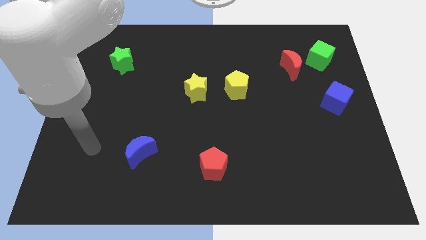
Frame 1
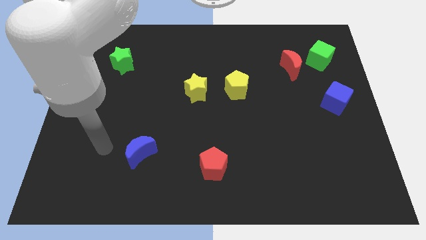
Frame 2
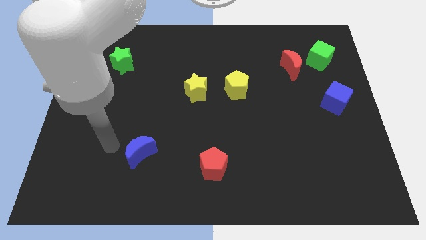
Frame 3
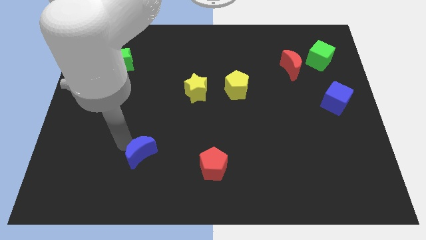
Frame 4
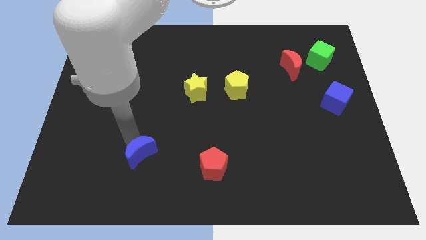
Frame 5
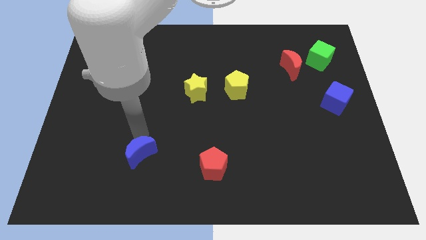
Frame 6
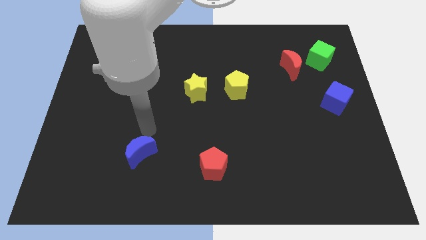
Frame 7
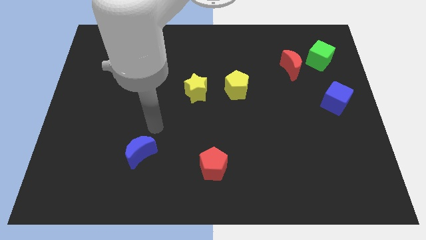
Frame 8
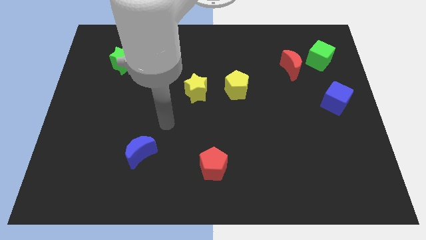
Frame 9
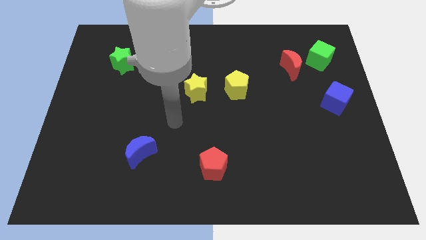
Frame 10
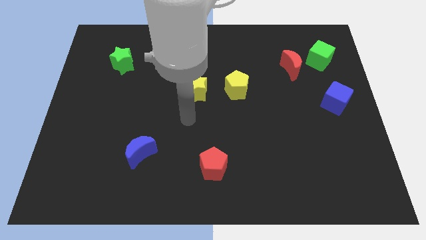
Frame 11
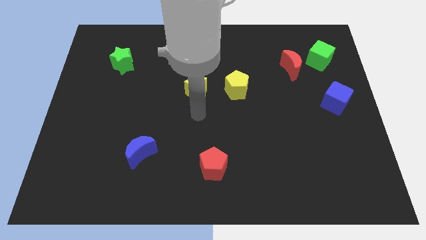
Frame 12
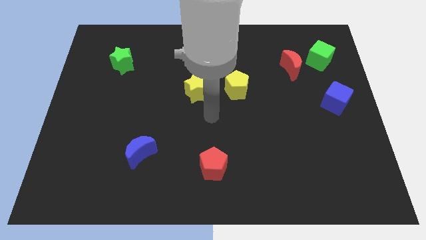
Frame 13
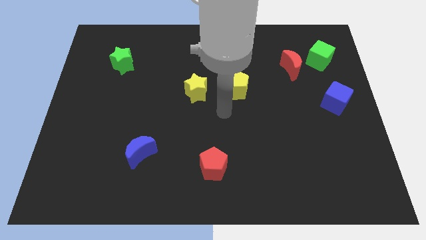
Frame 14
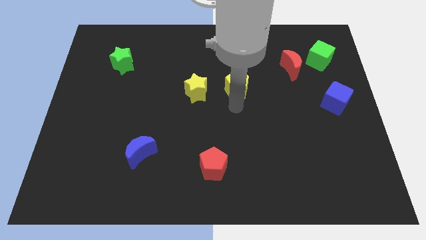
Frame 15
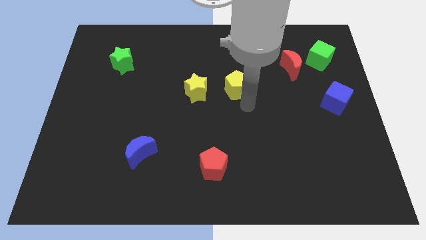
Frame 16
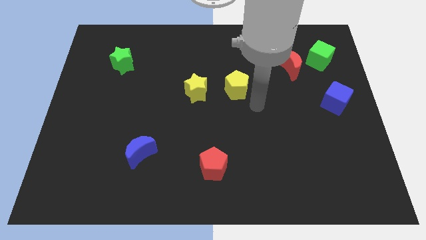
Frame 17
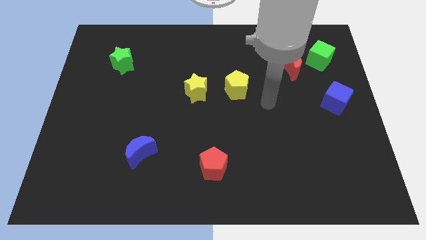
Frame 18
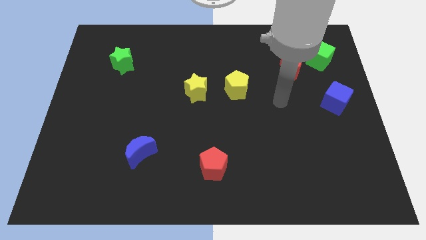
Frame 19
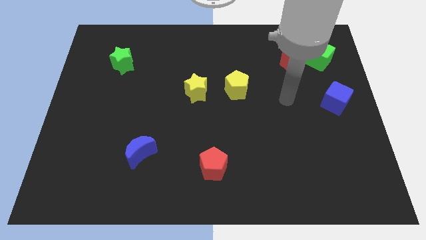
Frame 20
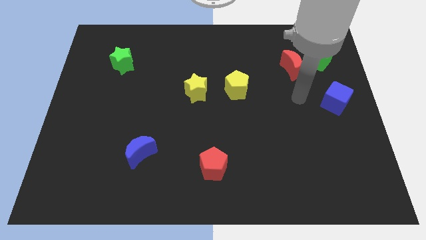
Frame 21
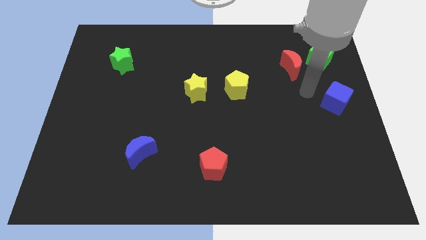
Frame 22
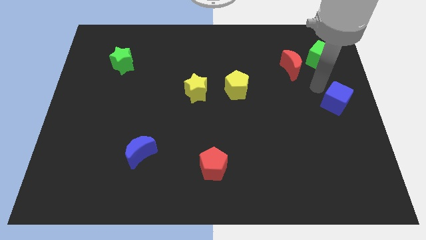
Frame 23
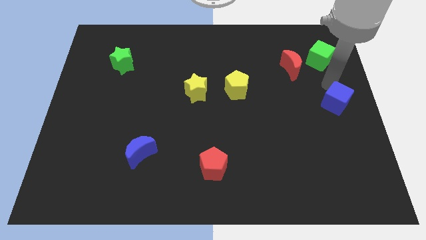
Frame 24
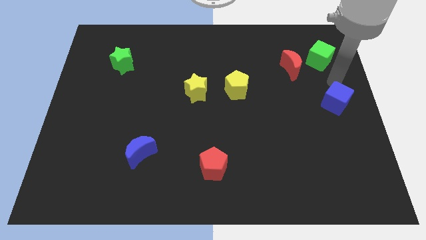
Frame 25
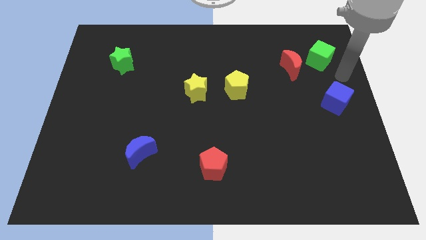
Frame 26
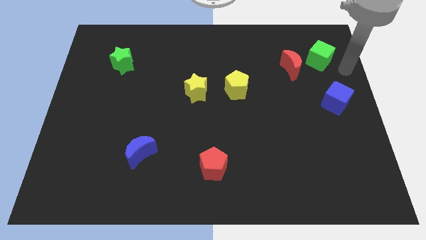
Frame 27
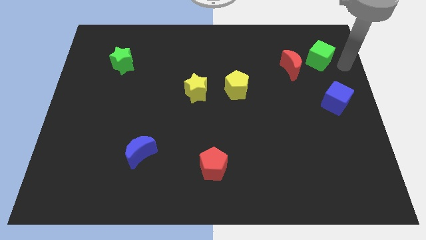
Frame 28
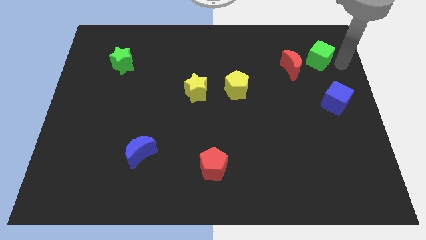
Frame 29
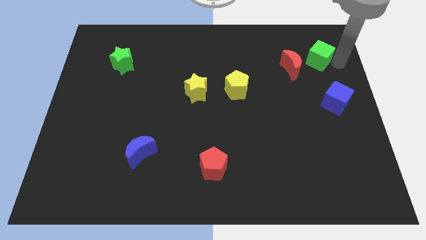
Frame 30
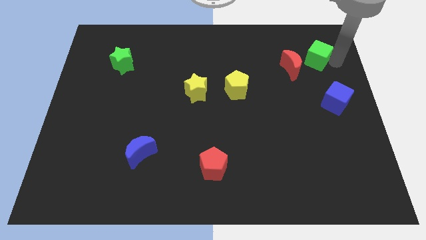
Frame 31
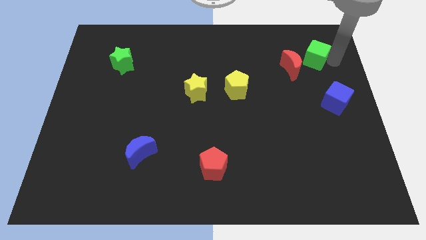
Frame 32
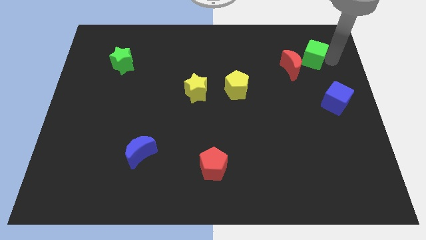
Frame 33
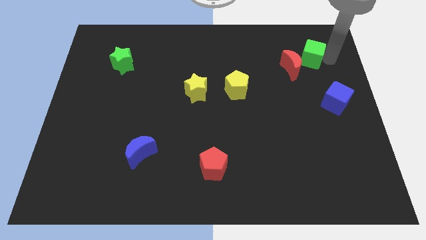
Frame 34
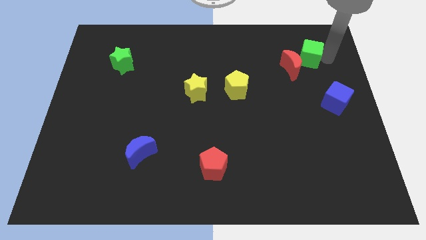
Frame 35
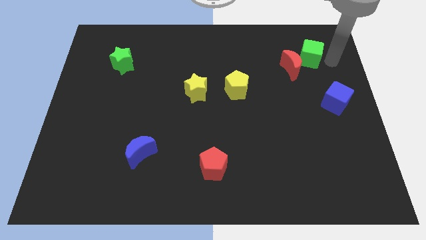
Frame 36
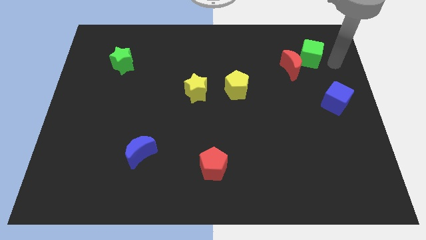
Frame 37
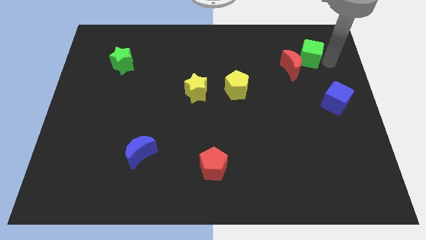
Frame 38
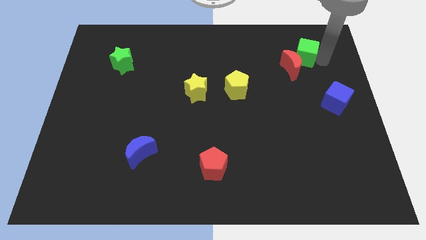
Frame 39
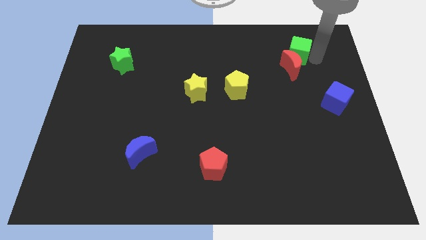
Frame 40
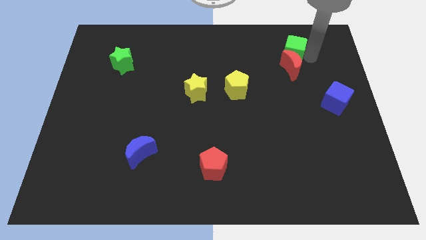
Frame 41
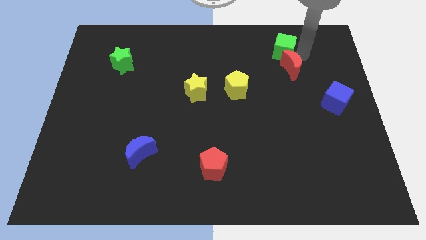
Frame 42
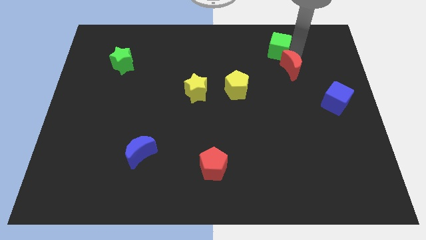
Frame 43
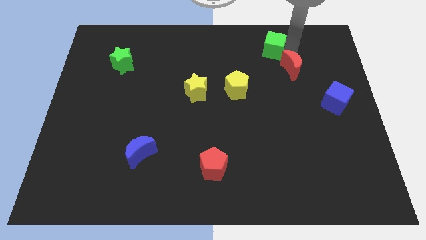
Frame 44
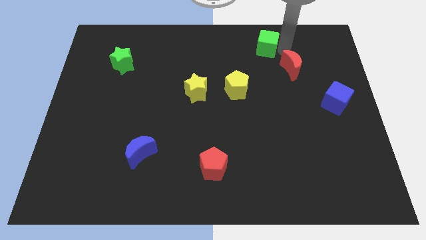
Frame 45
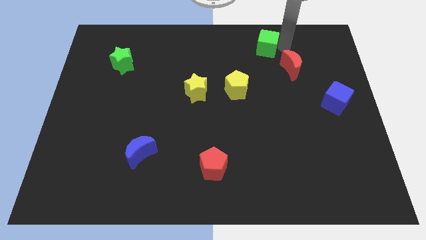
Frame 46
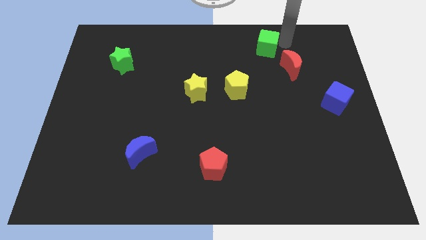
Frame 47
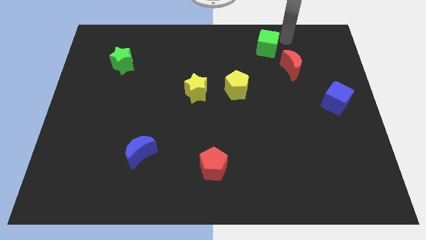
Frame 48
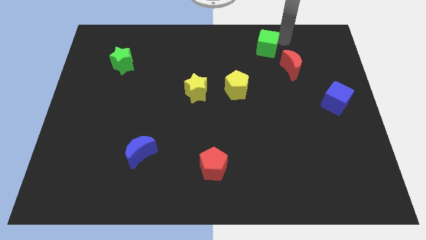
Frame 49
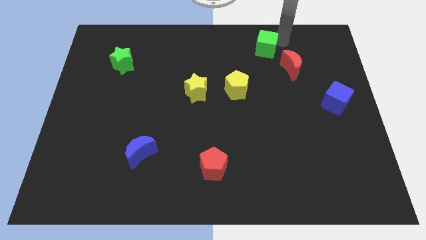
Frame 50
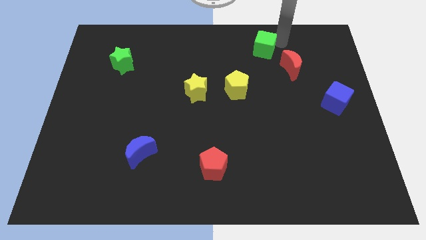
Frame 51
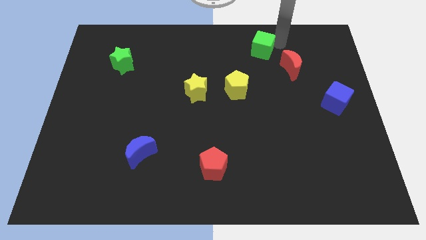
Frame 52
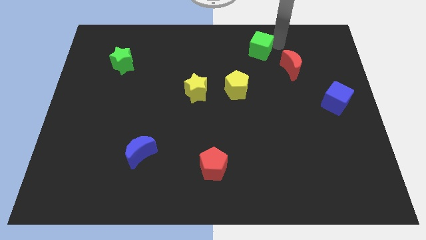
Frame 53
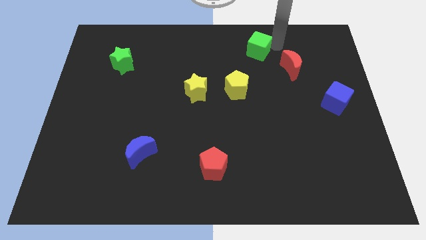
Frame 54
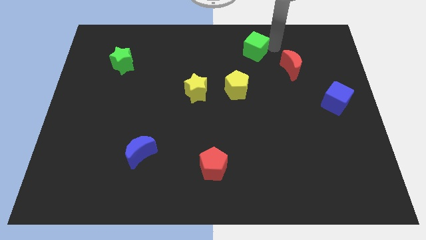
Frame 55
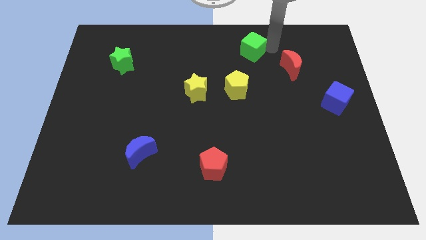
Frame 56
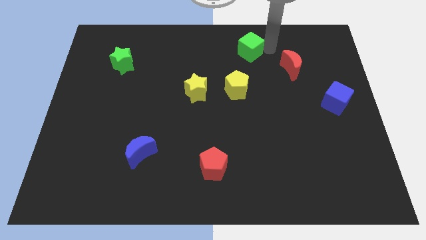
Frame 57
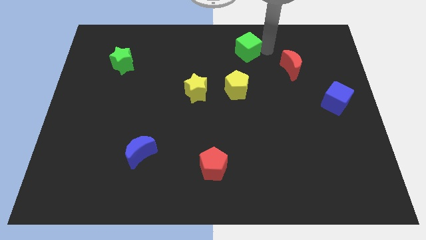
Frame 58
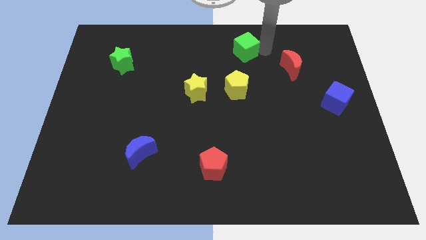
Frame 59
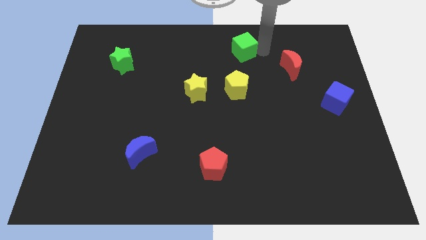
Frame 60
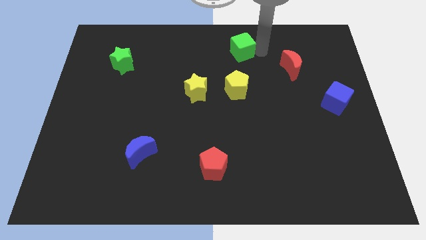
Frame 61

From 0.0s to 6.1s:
slide the green cube left

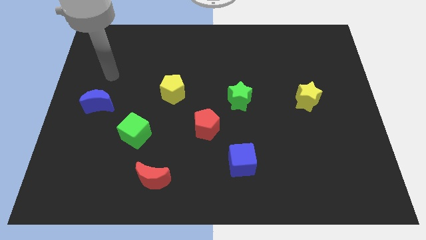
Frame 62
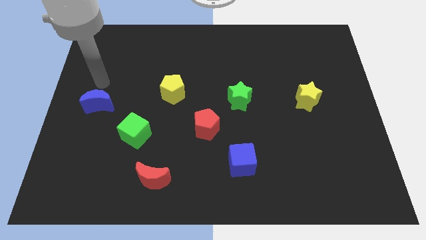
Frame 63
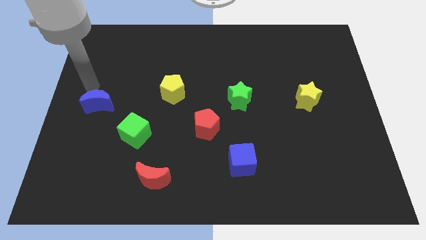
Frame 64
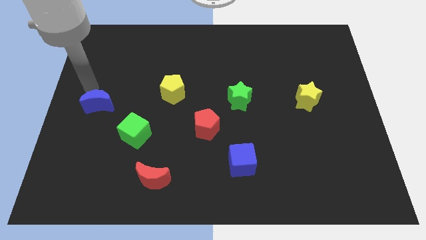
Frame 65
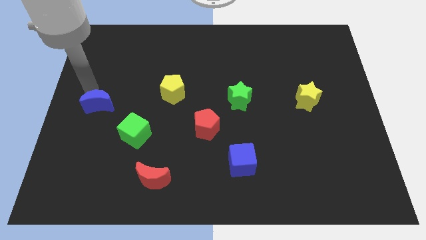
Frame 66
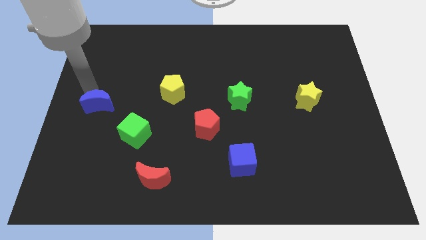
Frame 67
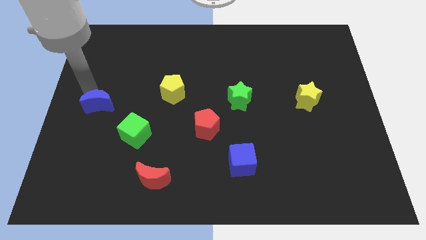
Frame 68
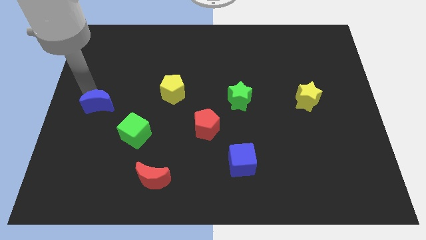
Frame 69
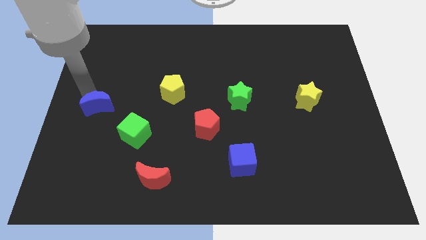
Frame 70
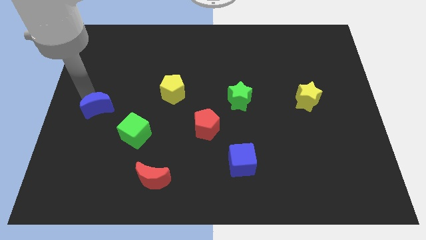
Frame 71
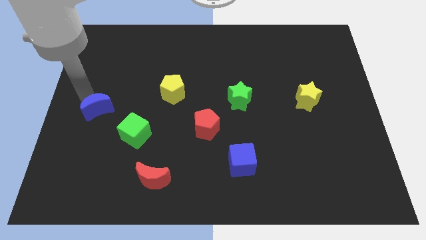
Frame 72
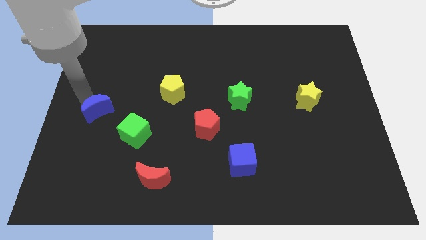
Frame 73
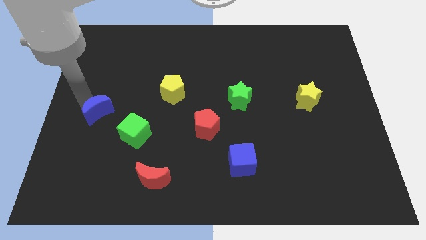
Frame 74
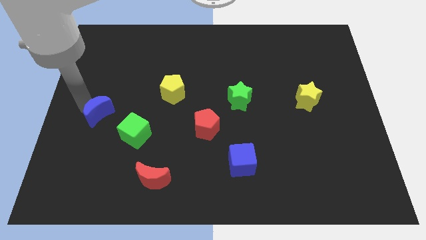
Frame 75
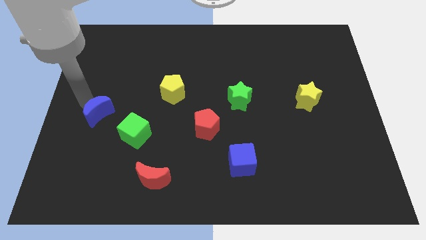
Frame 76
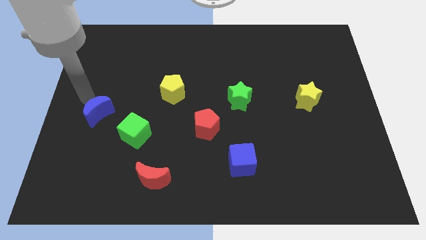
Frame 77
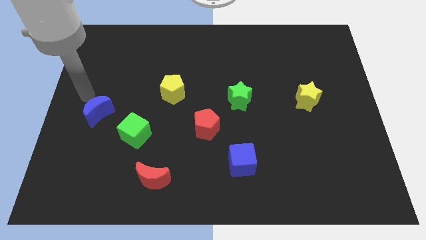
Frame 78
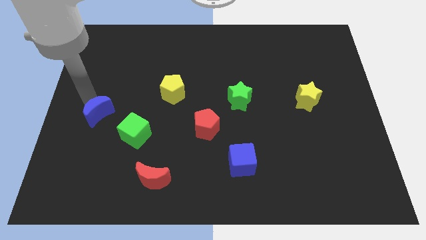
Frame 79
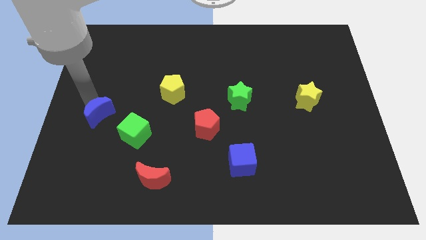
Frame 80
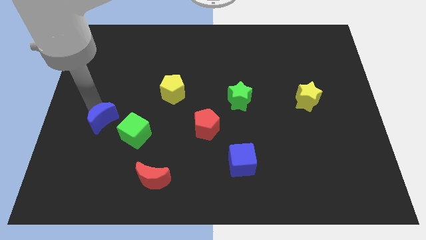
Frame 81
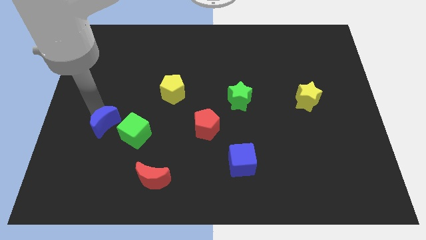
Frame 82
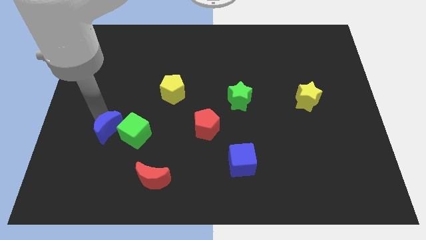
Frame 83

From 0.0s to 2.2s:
slide the blue moon slightly diagonally down and to the right
